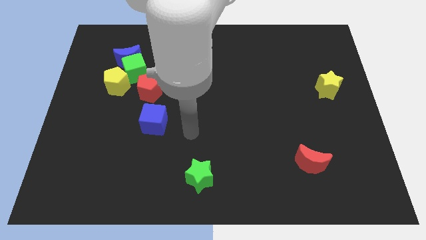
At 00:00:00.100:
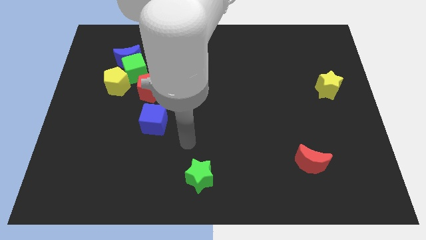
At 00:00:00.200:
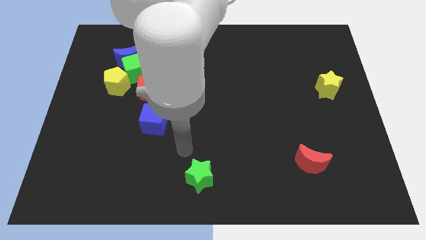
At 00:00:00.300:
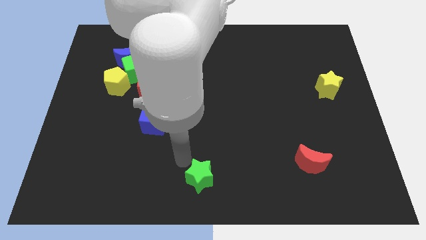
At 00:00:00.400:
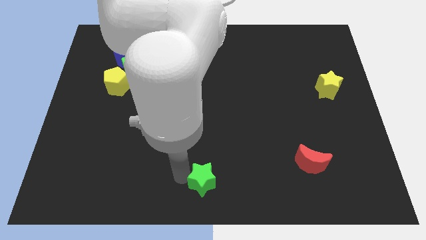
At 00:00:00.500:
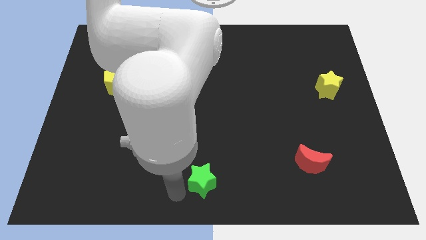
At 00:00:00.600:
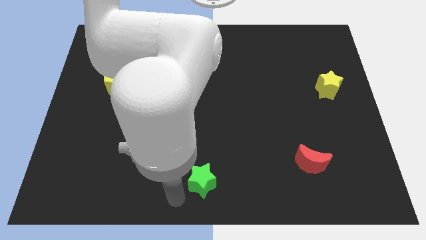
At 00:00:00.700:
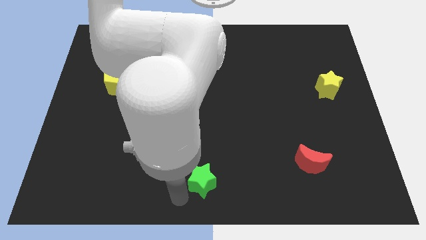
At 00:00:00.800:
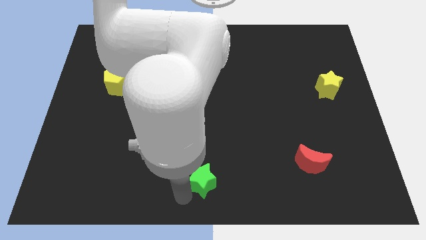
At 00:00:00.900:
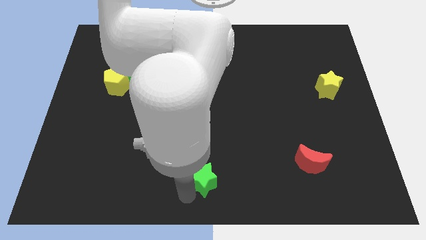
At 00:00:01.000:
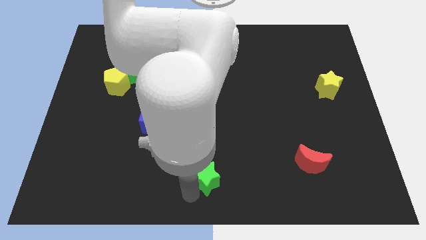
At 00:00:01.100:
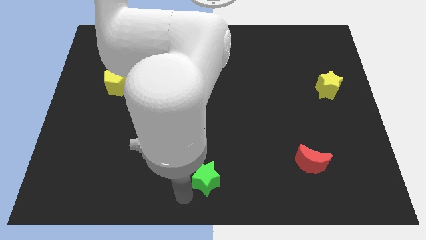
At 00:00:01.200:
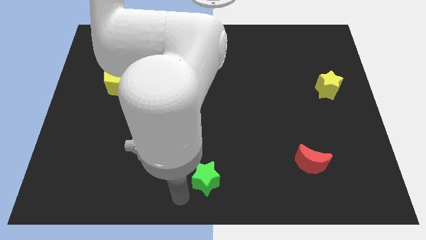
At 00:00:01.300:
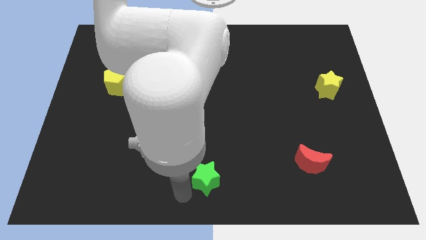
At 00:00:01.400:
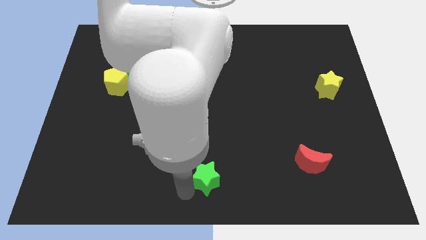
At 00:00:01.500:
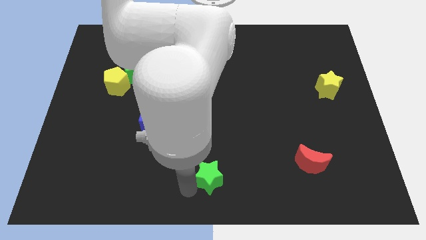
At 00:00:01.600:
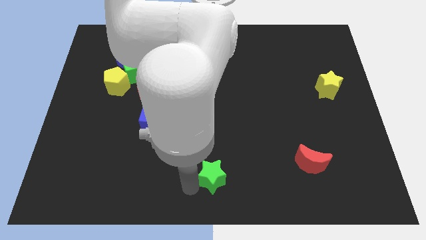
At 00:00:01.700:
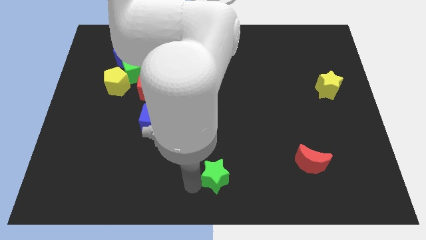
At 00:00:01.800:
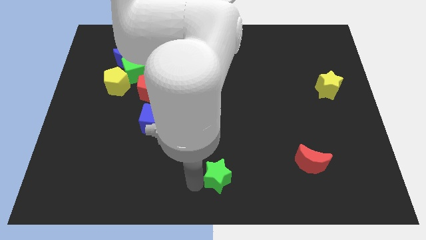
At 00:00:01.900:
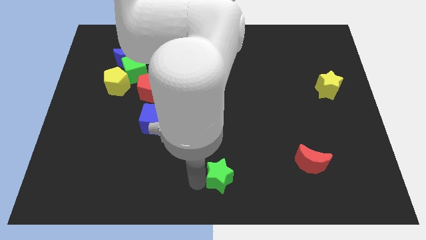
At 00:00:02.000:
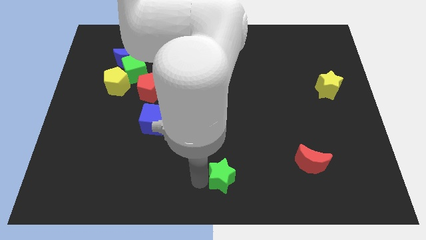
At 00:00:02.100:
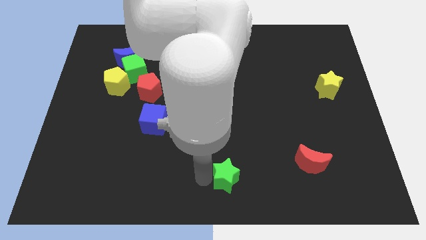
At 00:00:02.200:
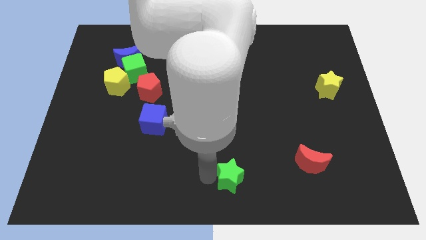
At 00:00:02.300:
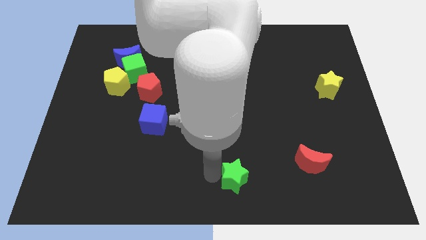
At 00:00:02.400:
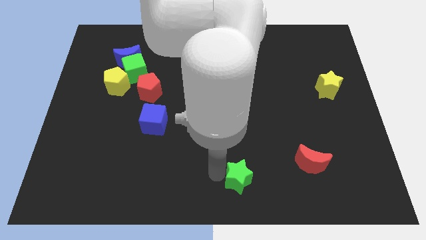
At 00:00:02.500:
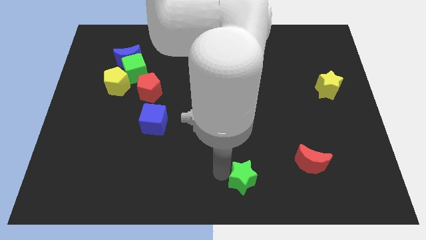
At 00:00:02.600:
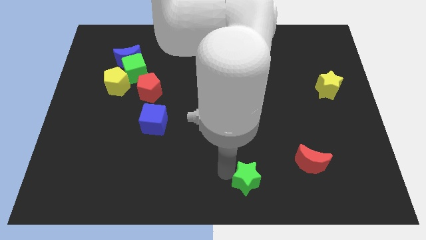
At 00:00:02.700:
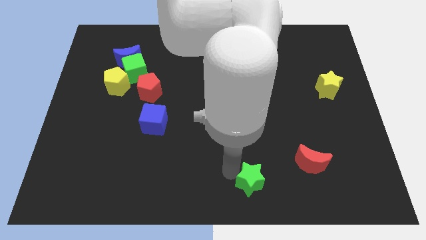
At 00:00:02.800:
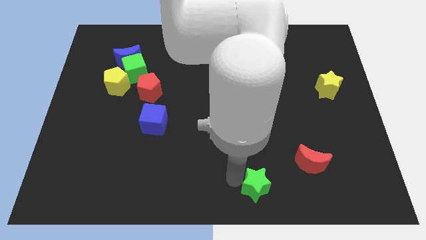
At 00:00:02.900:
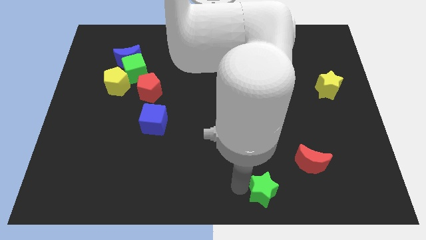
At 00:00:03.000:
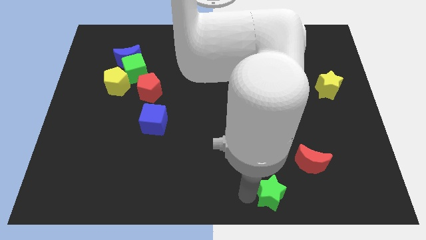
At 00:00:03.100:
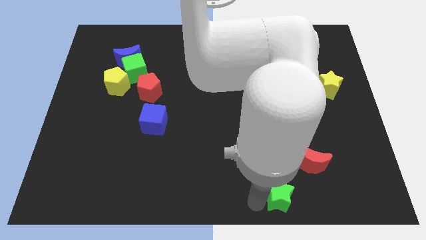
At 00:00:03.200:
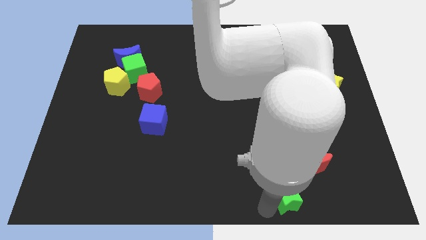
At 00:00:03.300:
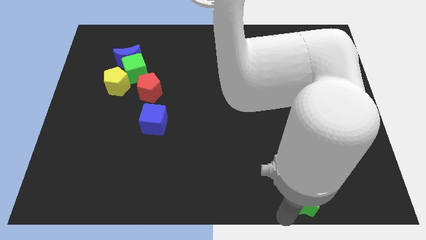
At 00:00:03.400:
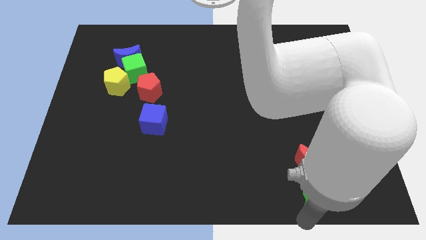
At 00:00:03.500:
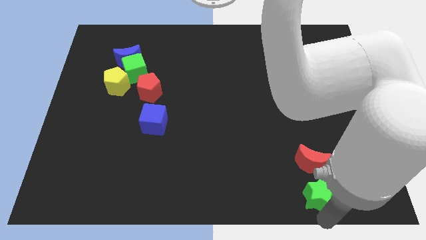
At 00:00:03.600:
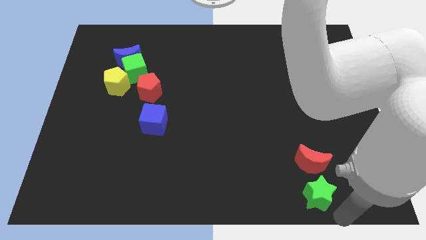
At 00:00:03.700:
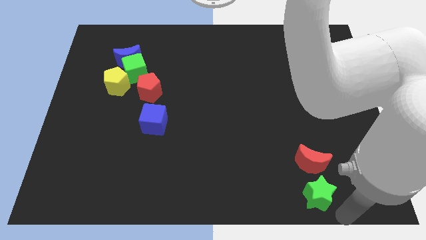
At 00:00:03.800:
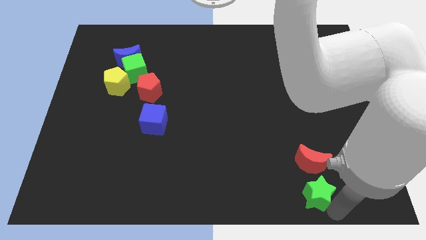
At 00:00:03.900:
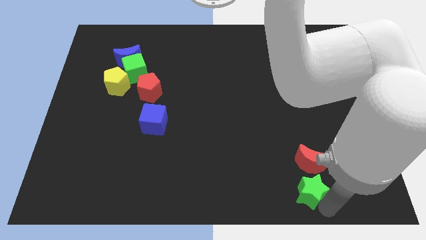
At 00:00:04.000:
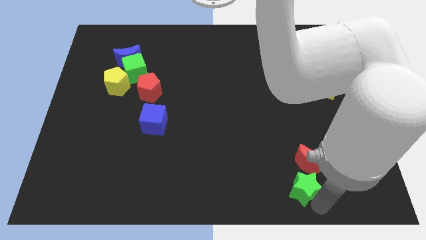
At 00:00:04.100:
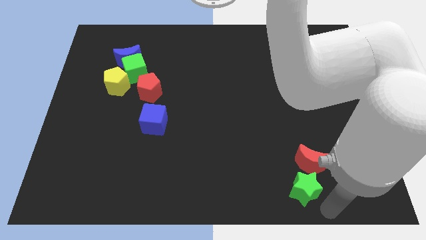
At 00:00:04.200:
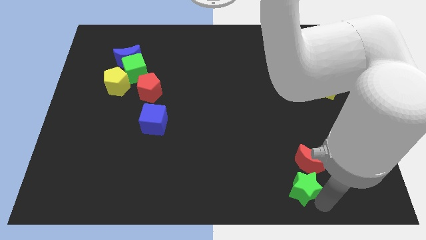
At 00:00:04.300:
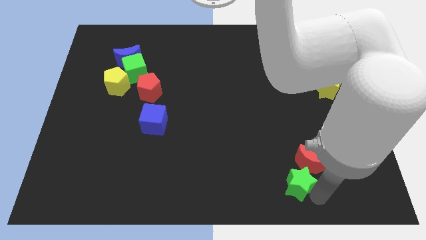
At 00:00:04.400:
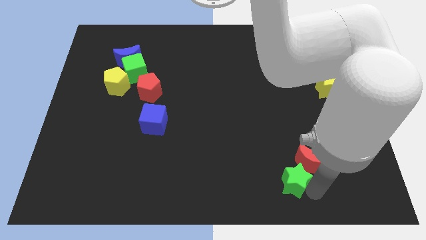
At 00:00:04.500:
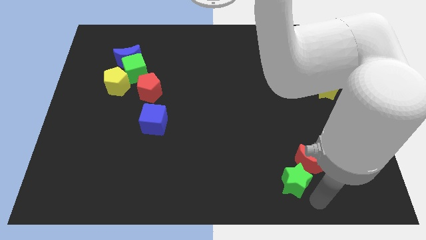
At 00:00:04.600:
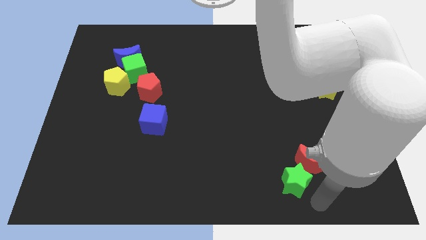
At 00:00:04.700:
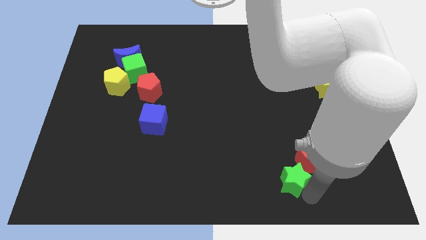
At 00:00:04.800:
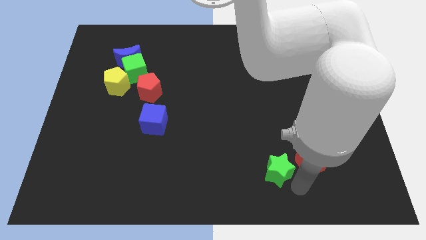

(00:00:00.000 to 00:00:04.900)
slide the green star up and to the right diagonally a little

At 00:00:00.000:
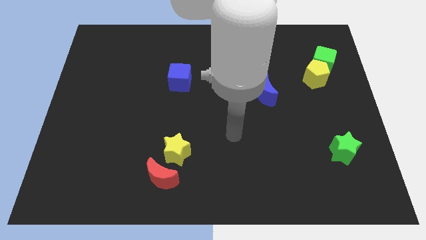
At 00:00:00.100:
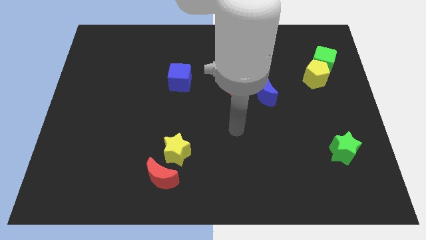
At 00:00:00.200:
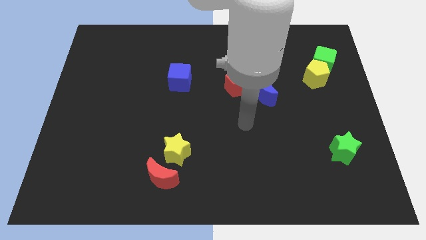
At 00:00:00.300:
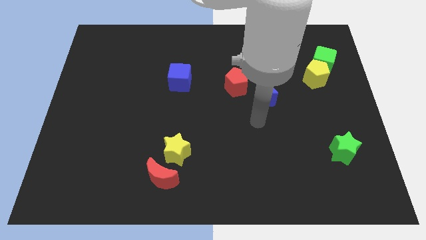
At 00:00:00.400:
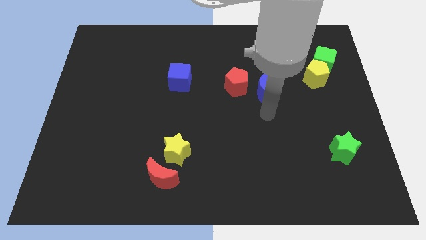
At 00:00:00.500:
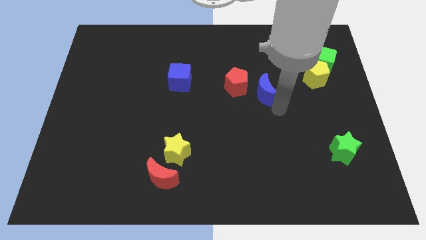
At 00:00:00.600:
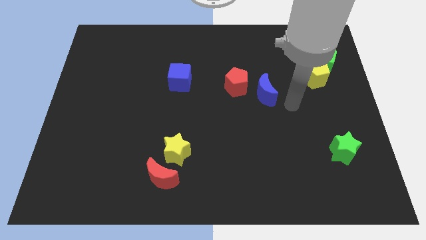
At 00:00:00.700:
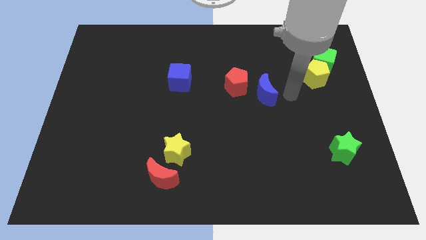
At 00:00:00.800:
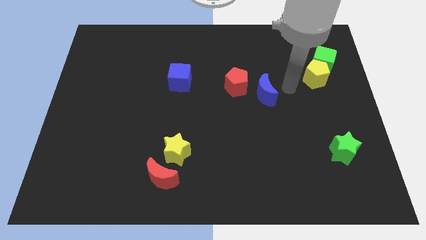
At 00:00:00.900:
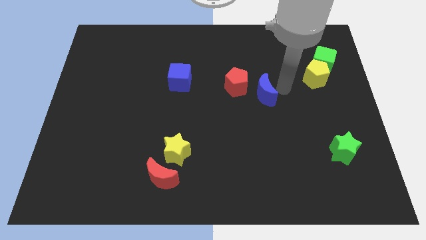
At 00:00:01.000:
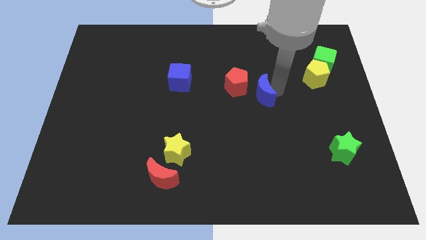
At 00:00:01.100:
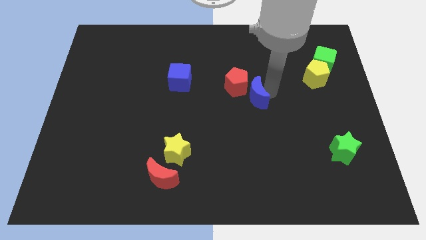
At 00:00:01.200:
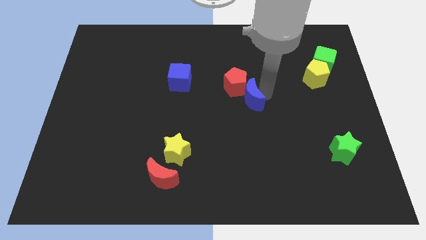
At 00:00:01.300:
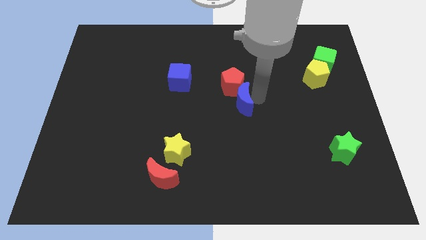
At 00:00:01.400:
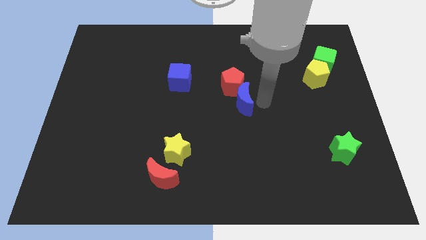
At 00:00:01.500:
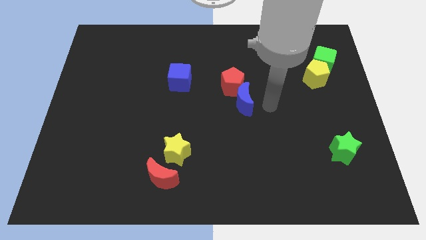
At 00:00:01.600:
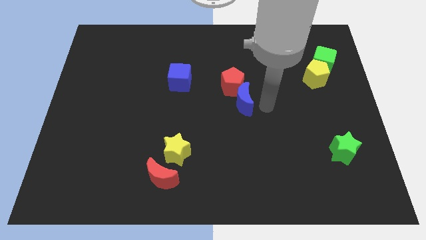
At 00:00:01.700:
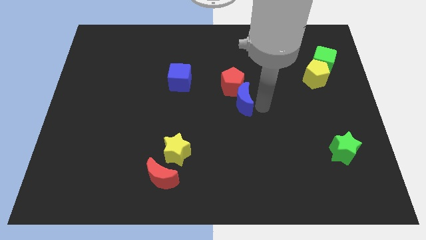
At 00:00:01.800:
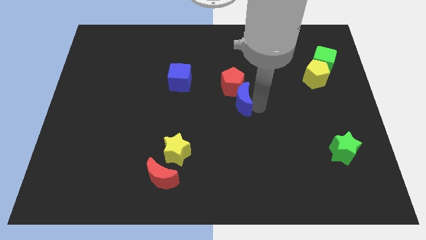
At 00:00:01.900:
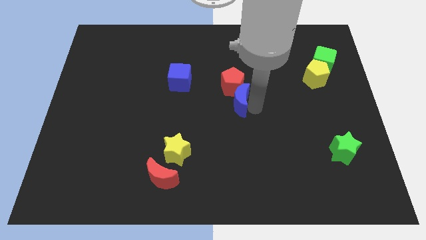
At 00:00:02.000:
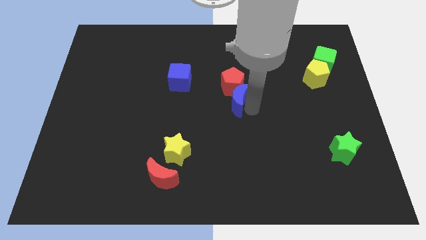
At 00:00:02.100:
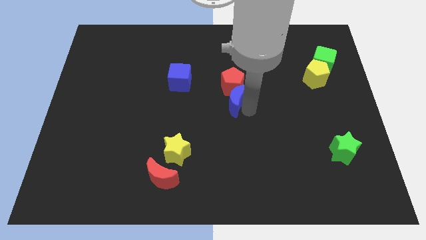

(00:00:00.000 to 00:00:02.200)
push the blue moon left slightly

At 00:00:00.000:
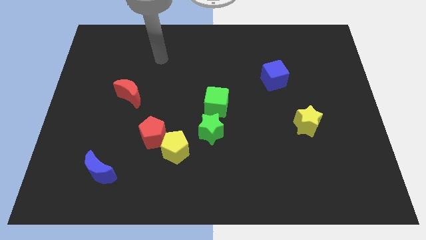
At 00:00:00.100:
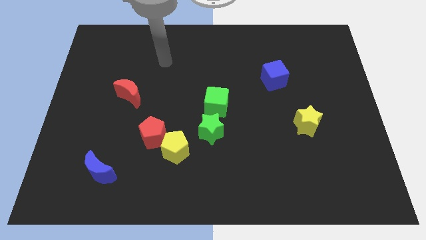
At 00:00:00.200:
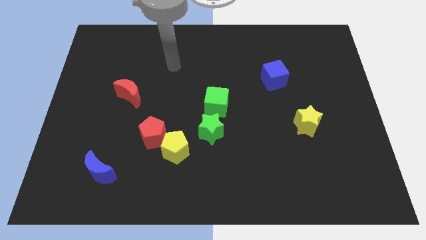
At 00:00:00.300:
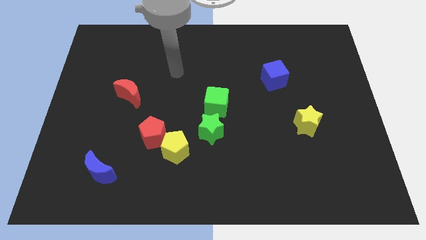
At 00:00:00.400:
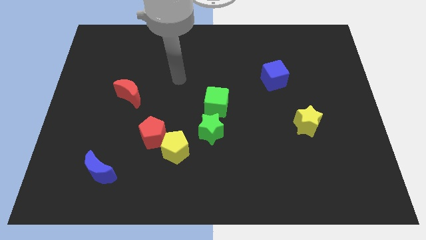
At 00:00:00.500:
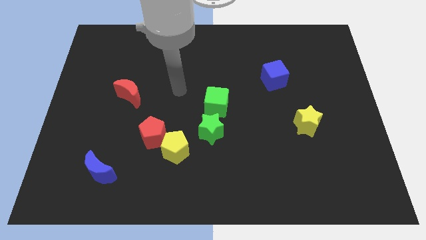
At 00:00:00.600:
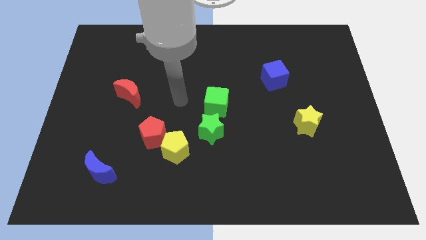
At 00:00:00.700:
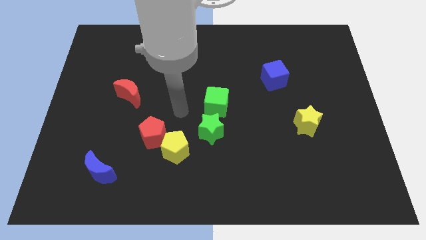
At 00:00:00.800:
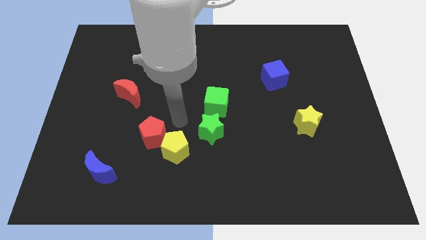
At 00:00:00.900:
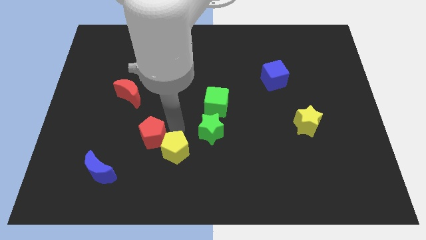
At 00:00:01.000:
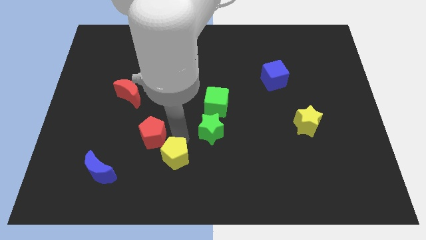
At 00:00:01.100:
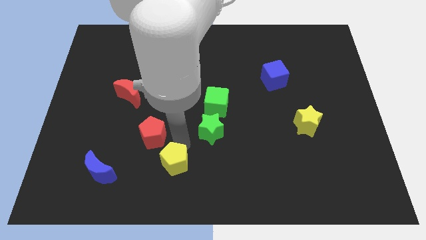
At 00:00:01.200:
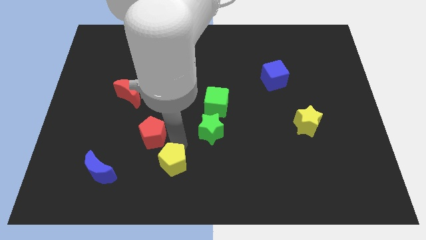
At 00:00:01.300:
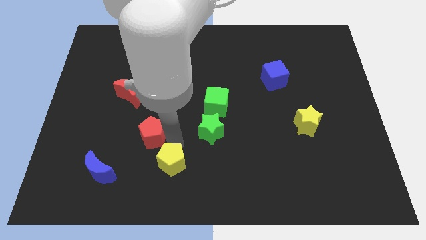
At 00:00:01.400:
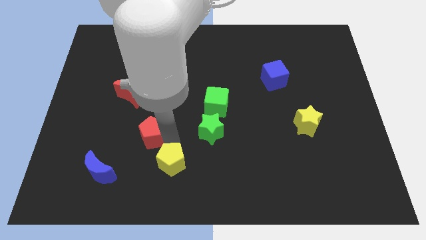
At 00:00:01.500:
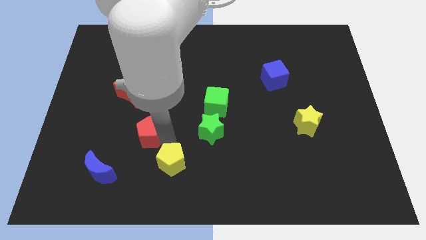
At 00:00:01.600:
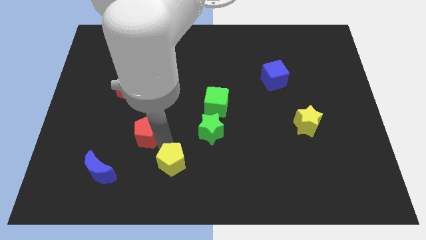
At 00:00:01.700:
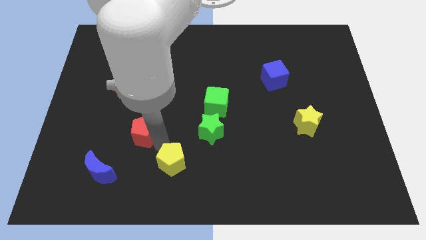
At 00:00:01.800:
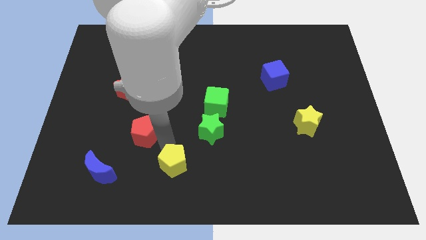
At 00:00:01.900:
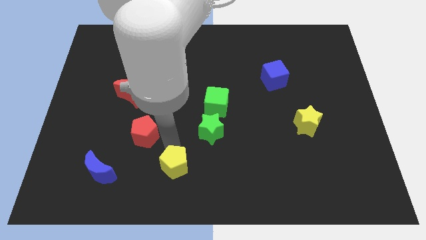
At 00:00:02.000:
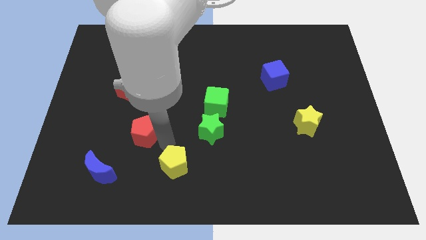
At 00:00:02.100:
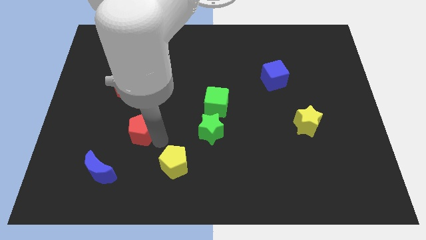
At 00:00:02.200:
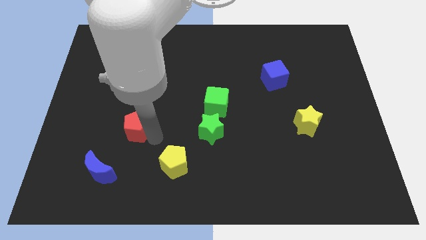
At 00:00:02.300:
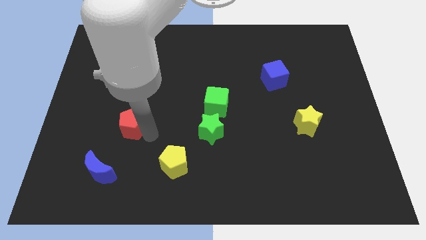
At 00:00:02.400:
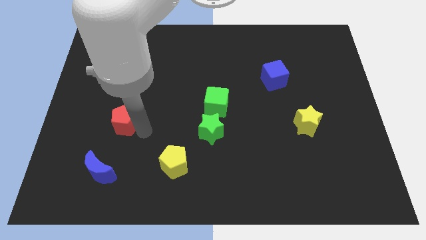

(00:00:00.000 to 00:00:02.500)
slide the red pentagon somewhat diagonally upwards and left
